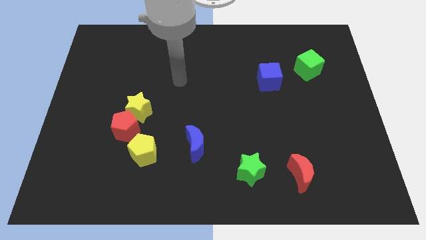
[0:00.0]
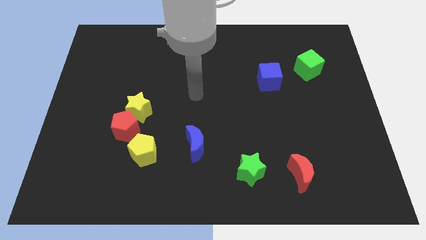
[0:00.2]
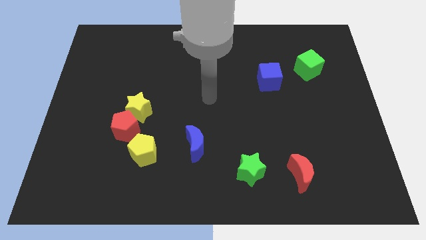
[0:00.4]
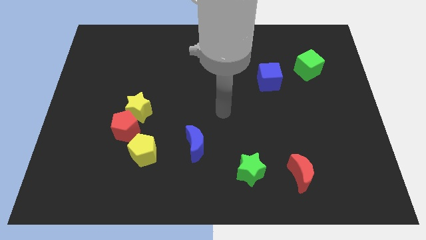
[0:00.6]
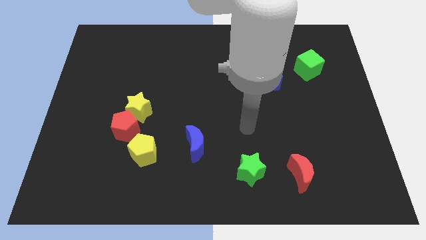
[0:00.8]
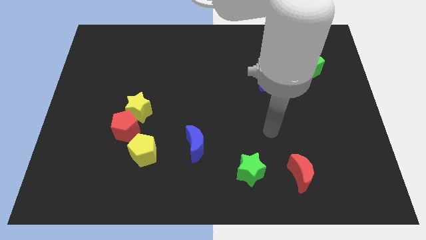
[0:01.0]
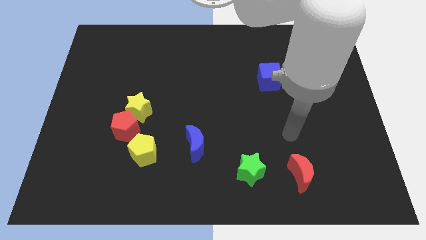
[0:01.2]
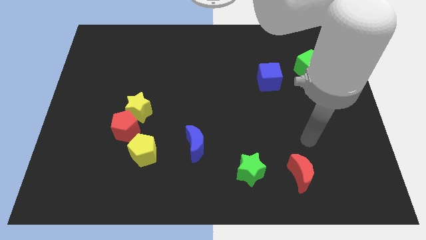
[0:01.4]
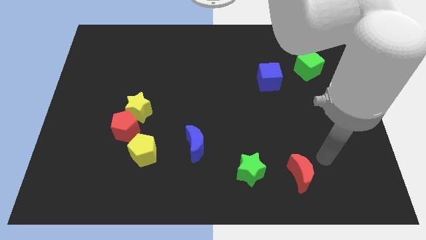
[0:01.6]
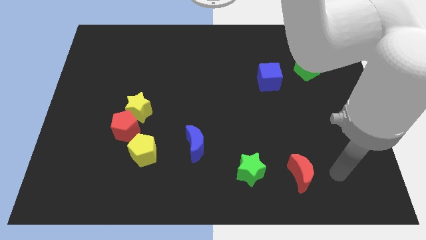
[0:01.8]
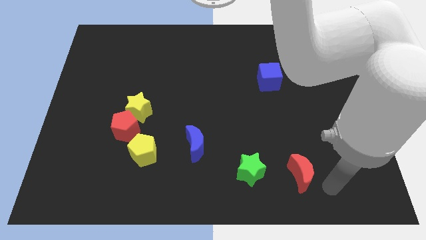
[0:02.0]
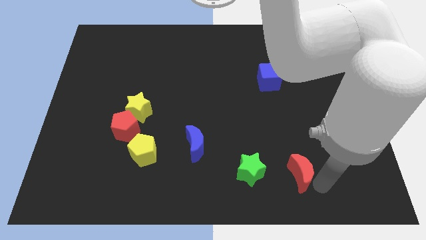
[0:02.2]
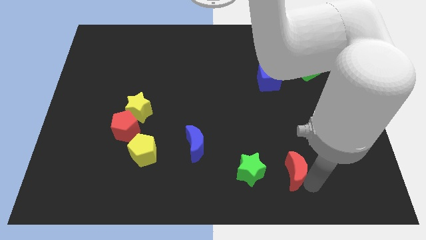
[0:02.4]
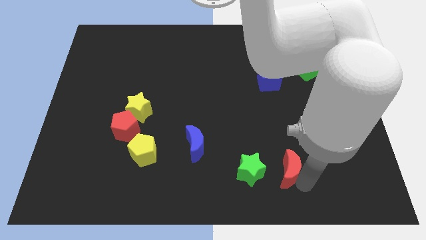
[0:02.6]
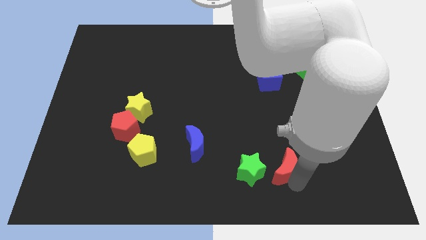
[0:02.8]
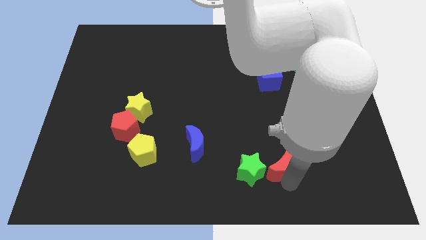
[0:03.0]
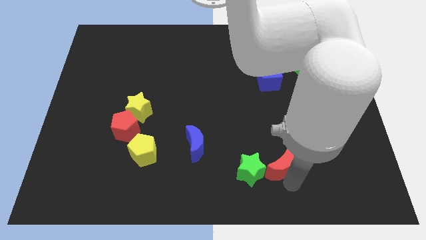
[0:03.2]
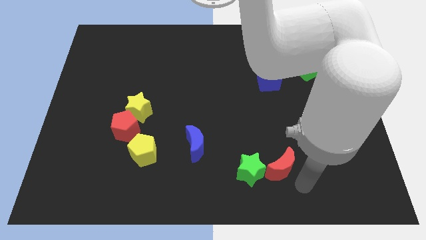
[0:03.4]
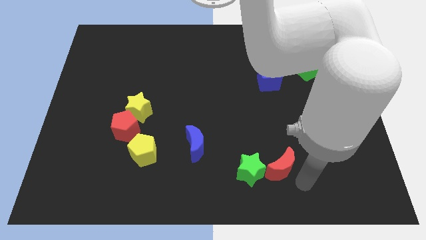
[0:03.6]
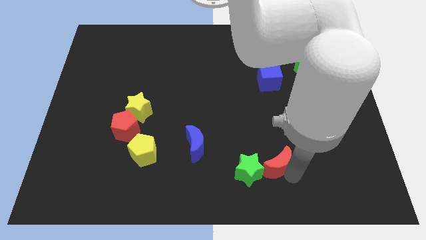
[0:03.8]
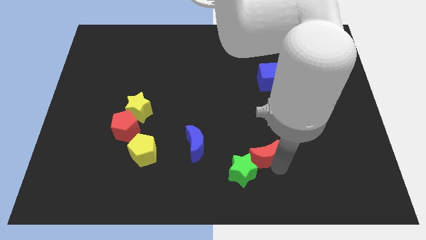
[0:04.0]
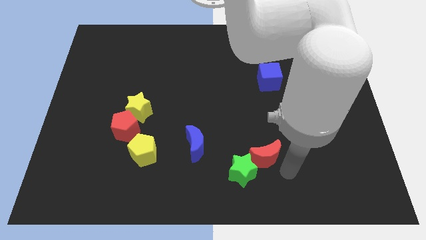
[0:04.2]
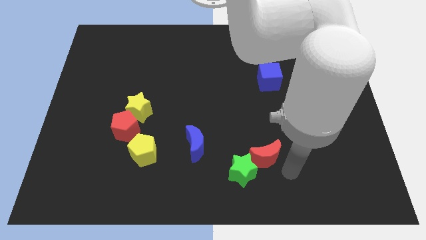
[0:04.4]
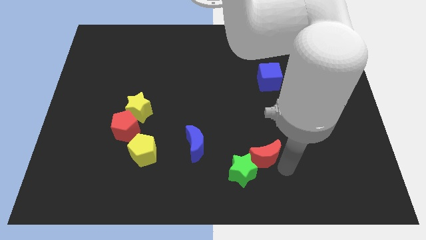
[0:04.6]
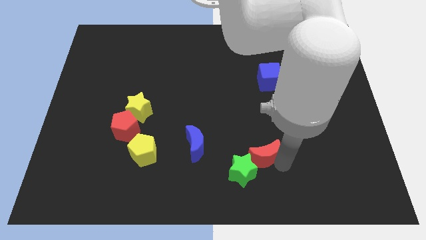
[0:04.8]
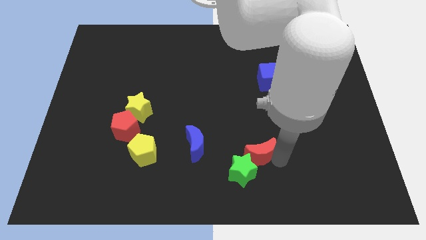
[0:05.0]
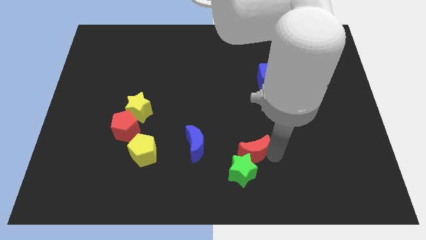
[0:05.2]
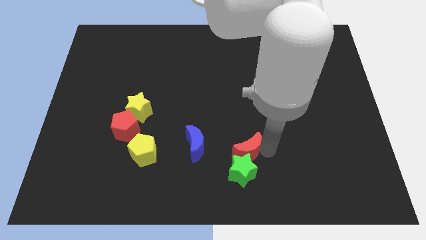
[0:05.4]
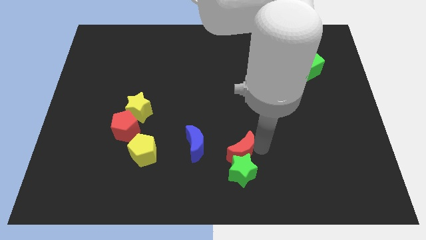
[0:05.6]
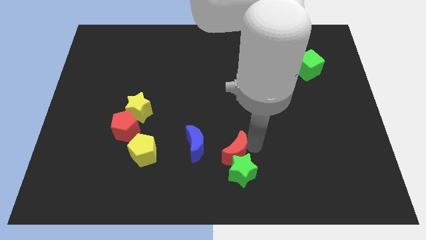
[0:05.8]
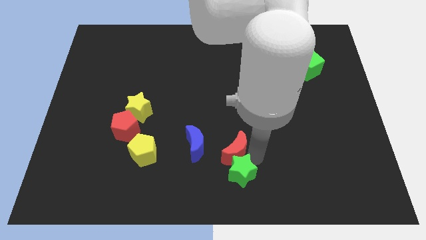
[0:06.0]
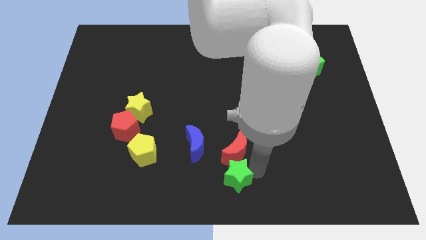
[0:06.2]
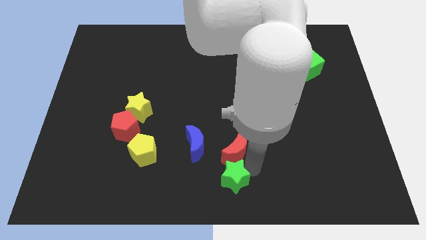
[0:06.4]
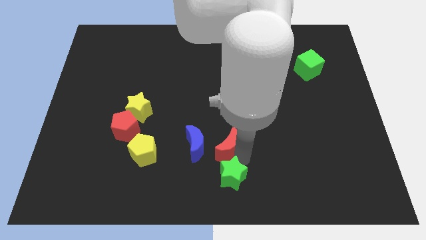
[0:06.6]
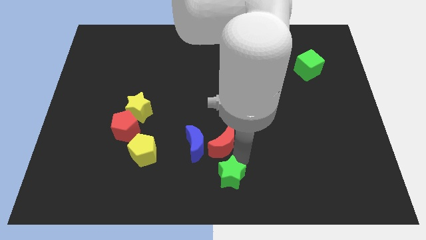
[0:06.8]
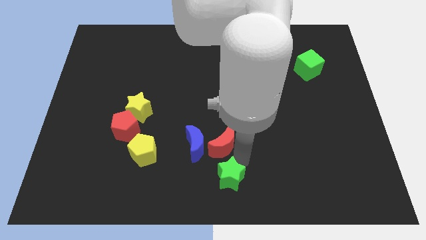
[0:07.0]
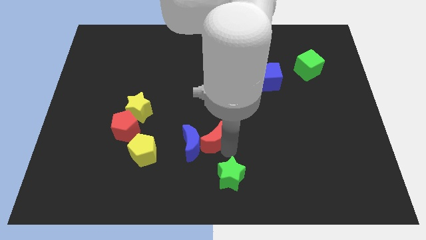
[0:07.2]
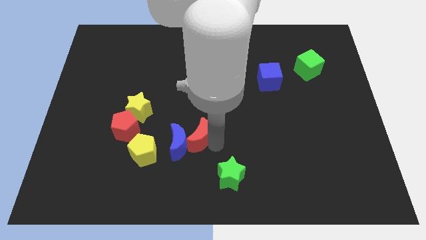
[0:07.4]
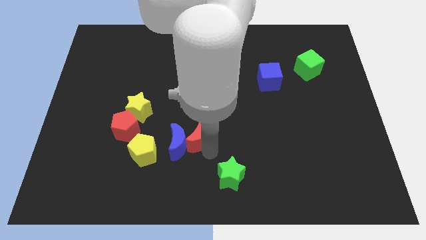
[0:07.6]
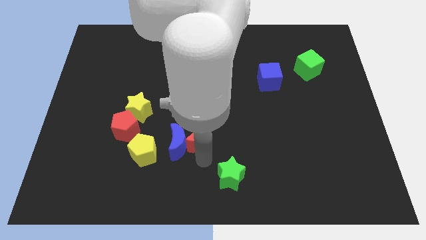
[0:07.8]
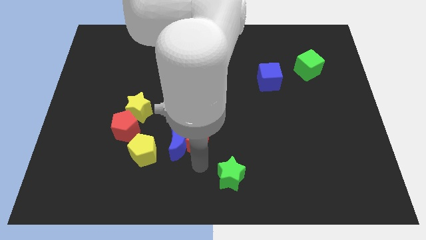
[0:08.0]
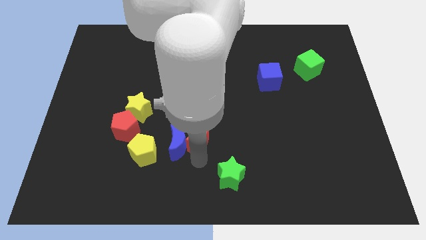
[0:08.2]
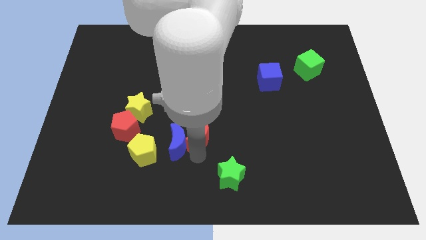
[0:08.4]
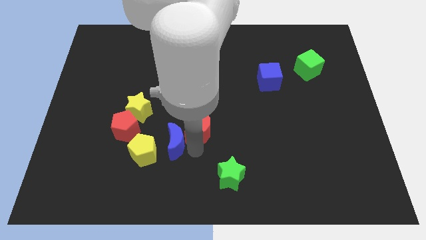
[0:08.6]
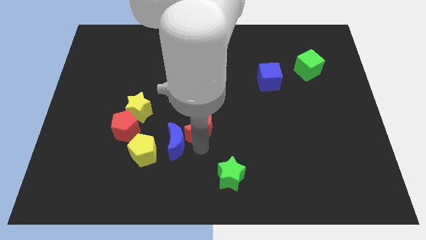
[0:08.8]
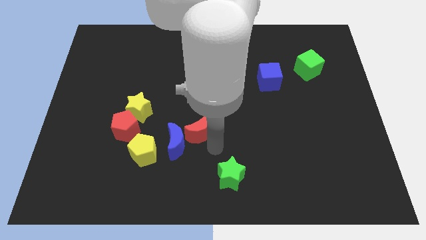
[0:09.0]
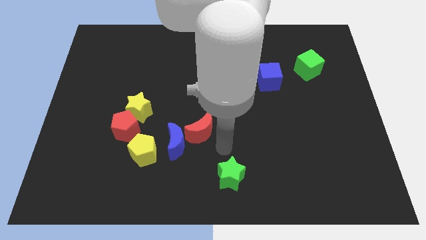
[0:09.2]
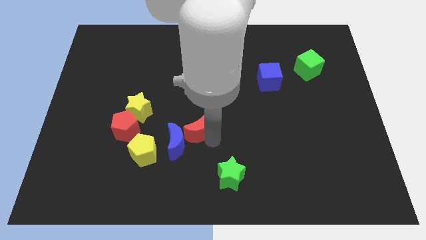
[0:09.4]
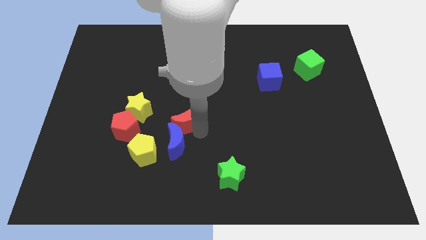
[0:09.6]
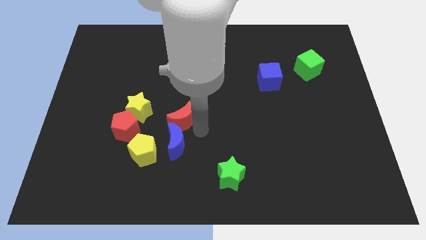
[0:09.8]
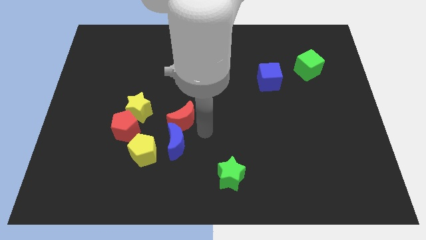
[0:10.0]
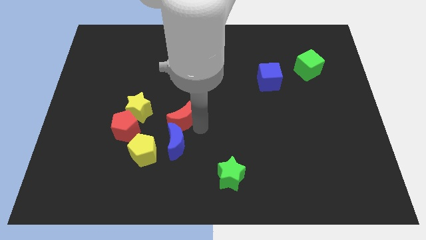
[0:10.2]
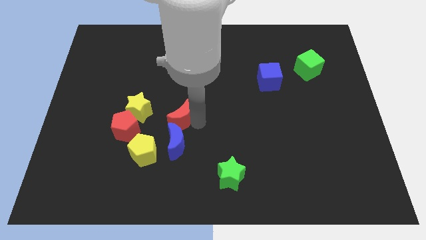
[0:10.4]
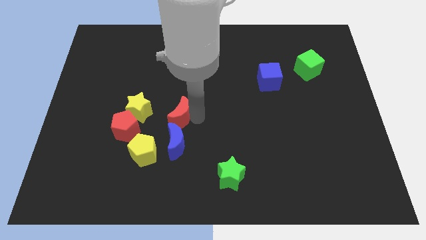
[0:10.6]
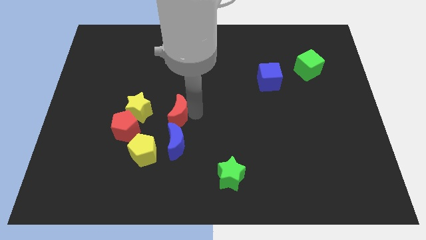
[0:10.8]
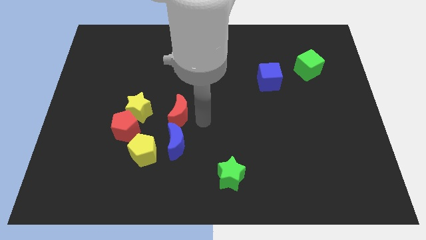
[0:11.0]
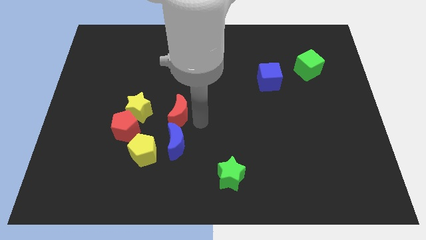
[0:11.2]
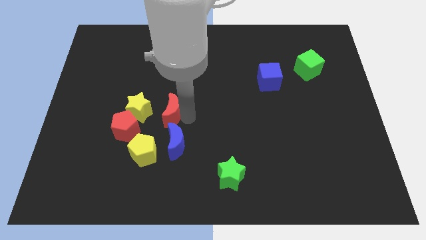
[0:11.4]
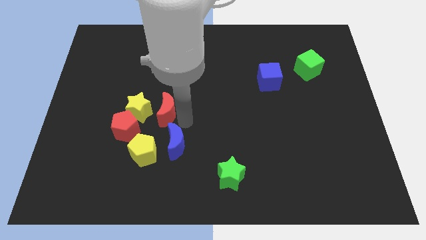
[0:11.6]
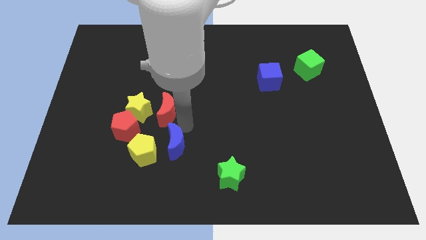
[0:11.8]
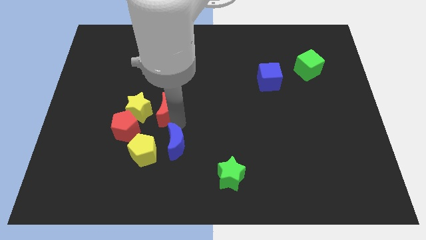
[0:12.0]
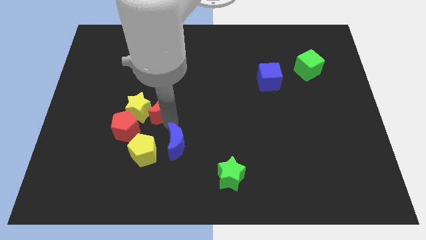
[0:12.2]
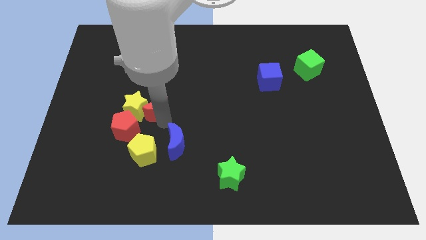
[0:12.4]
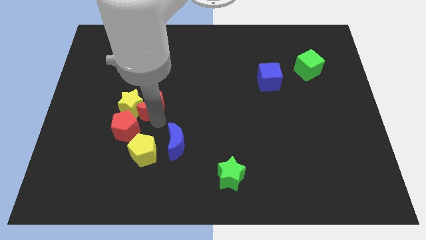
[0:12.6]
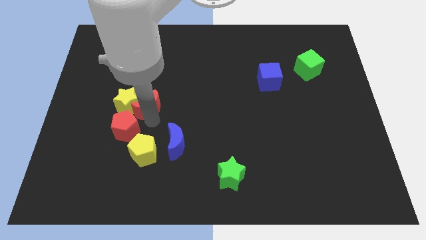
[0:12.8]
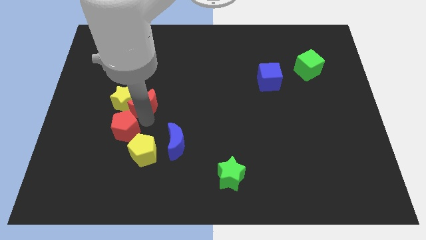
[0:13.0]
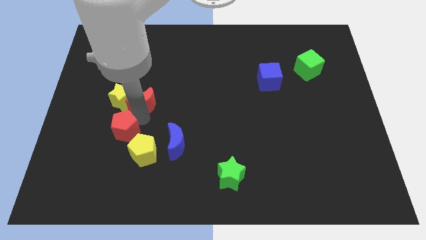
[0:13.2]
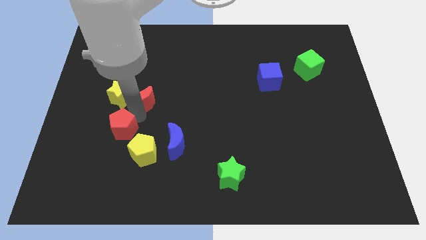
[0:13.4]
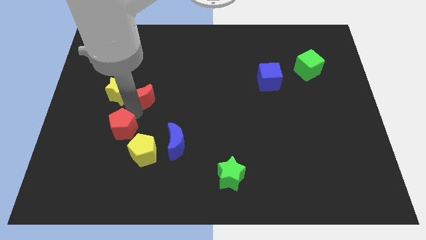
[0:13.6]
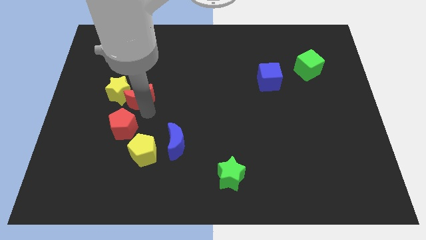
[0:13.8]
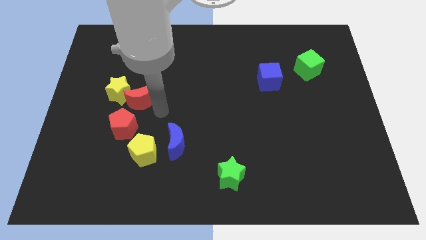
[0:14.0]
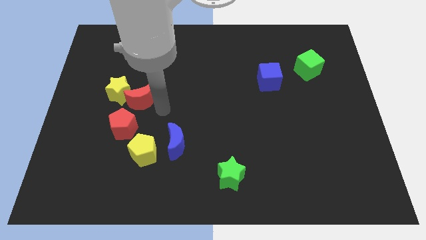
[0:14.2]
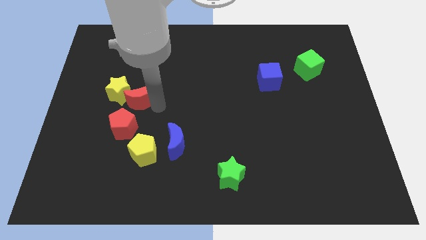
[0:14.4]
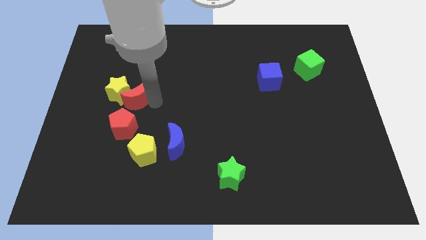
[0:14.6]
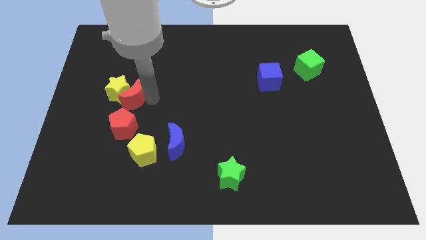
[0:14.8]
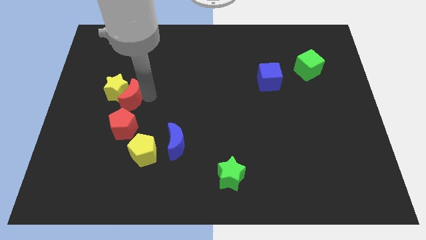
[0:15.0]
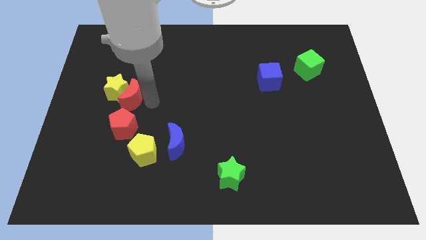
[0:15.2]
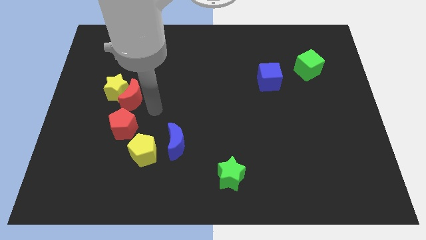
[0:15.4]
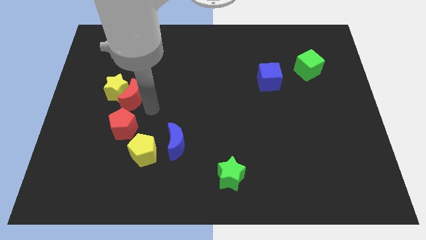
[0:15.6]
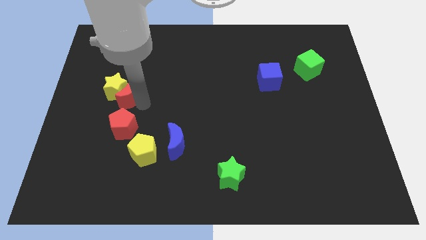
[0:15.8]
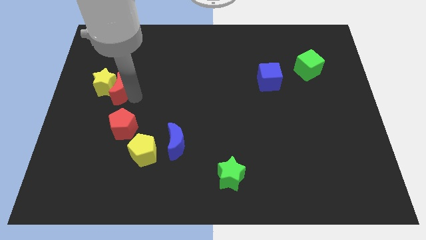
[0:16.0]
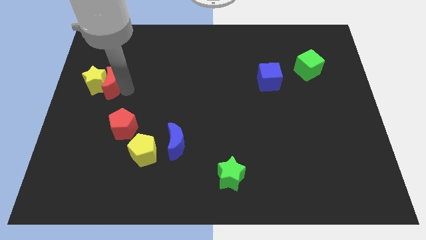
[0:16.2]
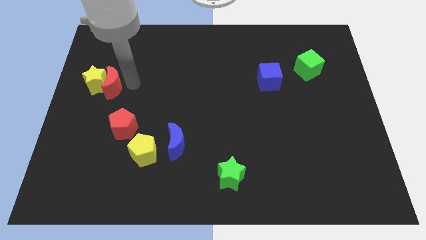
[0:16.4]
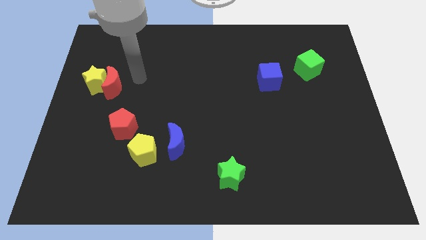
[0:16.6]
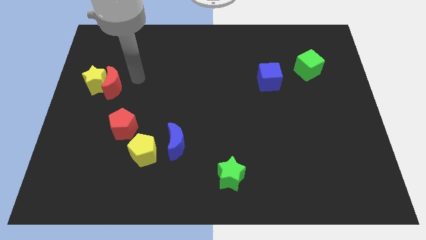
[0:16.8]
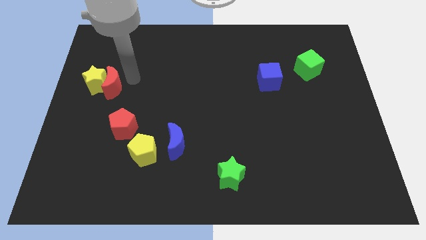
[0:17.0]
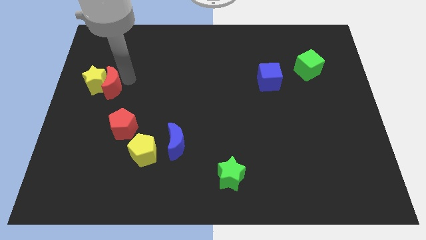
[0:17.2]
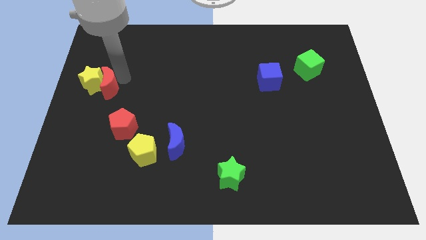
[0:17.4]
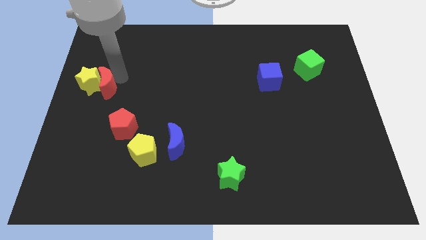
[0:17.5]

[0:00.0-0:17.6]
put the red moon to the center left
